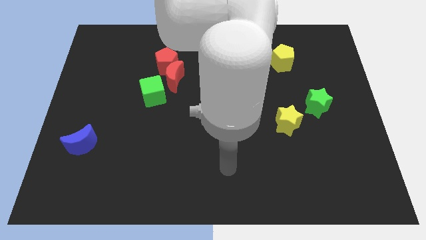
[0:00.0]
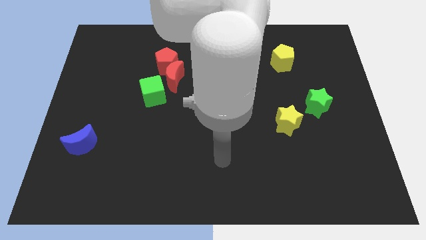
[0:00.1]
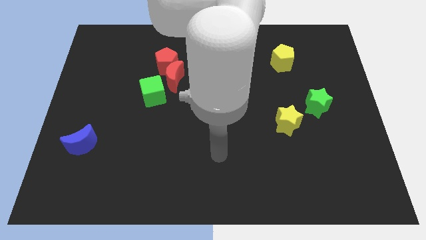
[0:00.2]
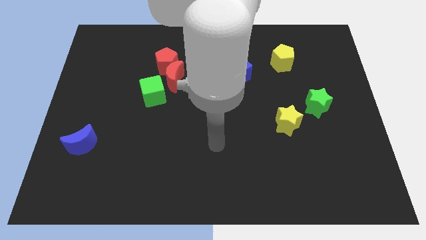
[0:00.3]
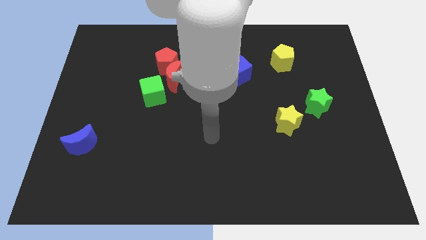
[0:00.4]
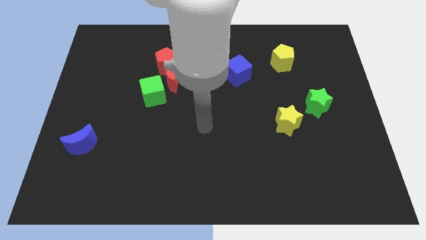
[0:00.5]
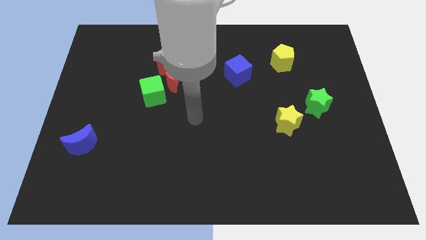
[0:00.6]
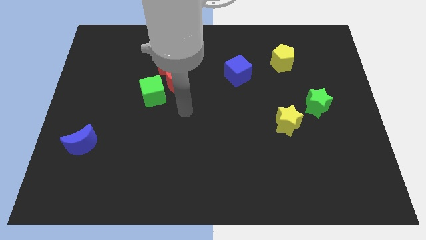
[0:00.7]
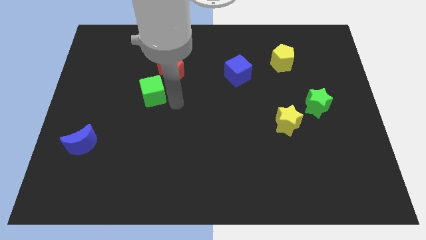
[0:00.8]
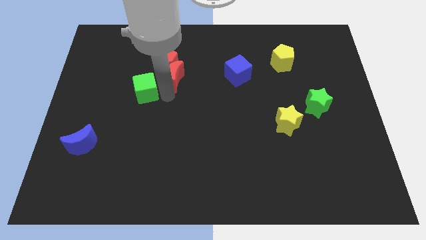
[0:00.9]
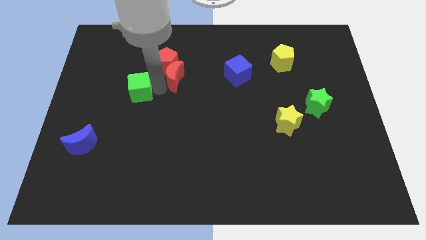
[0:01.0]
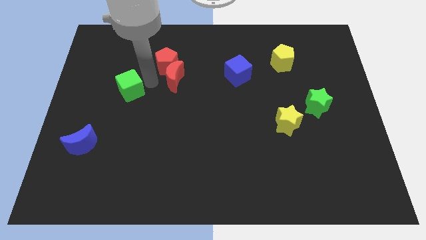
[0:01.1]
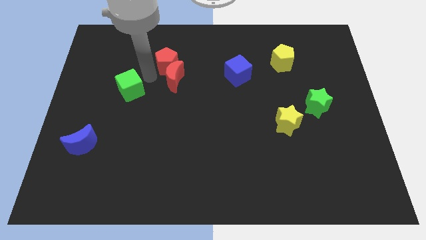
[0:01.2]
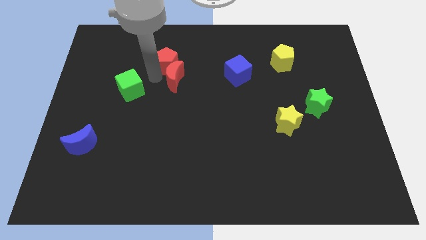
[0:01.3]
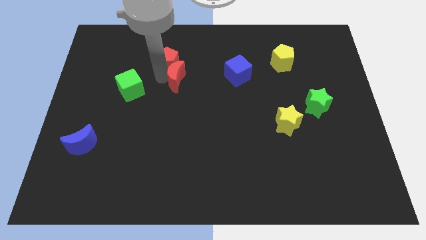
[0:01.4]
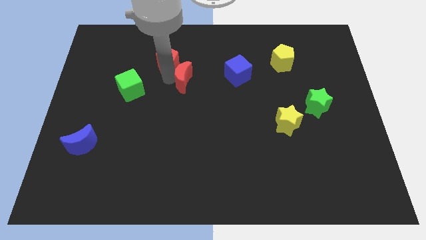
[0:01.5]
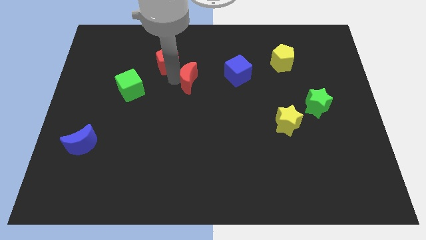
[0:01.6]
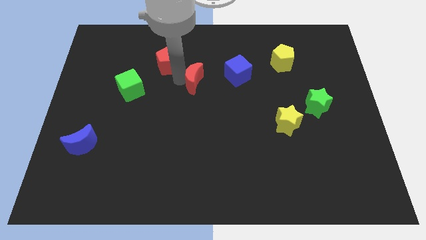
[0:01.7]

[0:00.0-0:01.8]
pull the red moon apart from the red pentagon and green cube

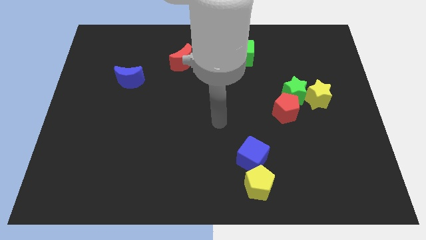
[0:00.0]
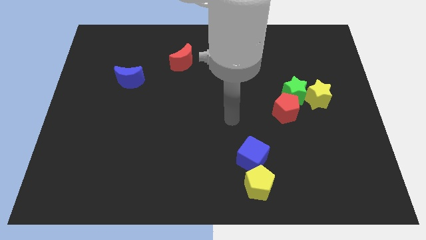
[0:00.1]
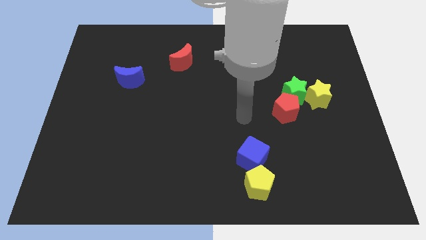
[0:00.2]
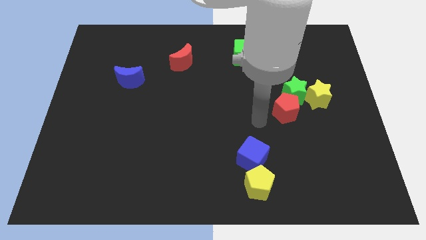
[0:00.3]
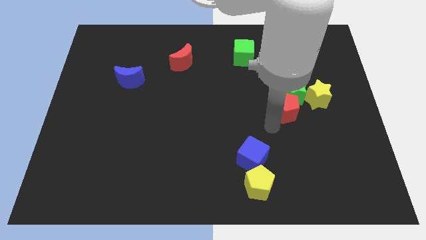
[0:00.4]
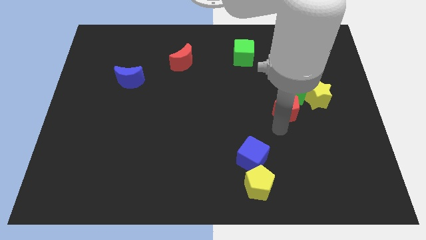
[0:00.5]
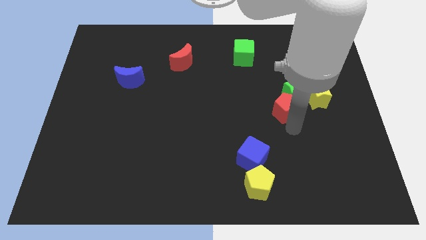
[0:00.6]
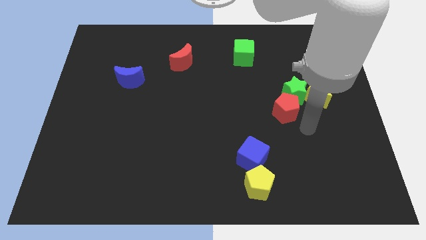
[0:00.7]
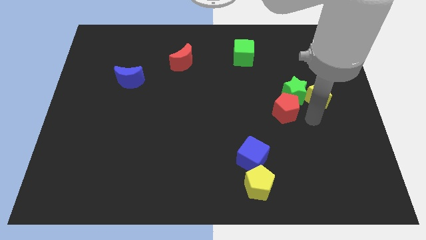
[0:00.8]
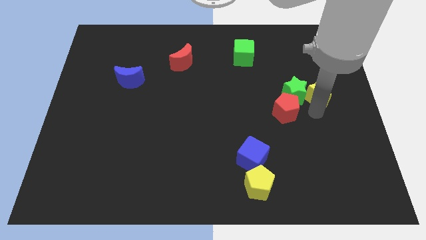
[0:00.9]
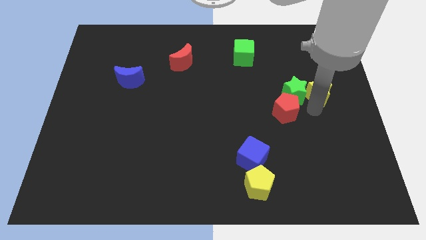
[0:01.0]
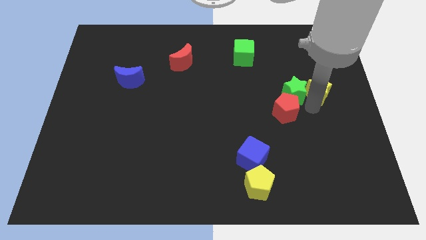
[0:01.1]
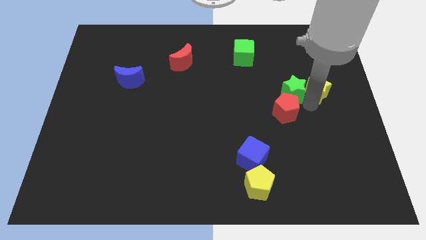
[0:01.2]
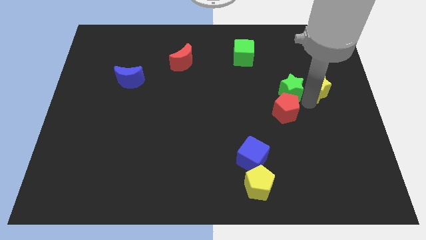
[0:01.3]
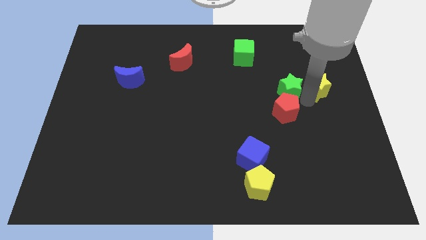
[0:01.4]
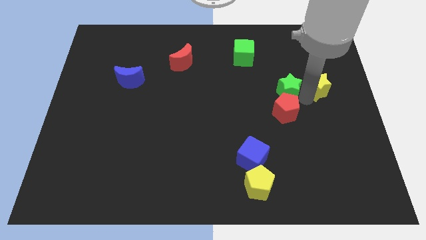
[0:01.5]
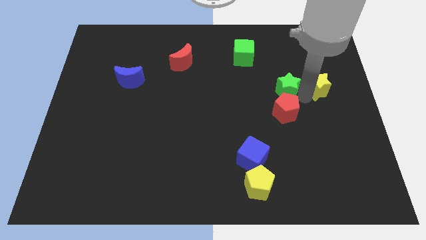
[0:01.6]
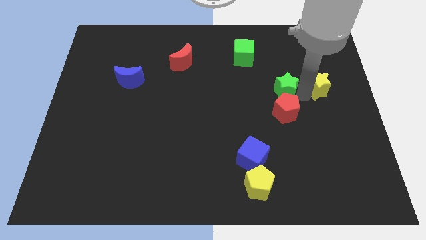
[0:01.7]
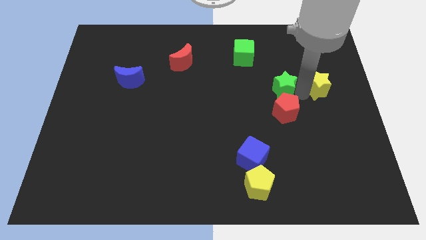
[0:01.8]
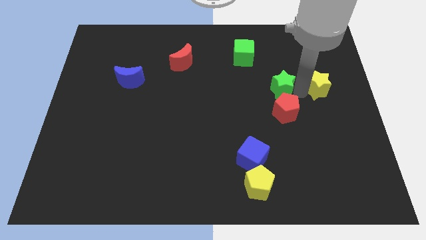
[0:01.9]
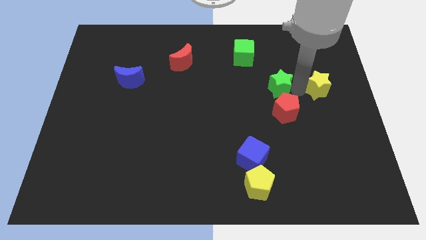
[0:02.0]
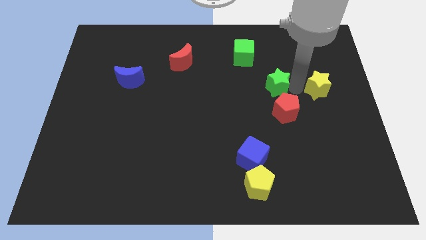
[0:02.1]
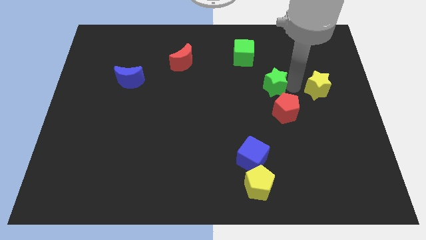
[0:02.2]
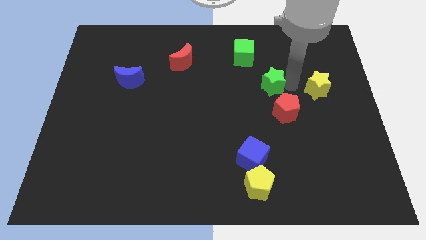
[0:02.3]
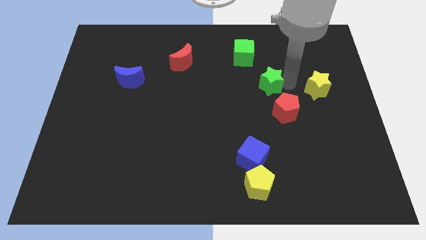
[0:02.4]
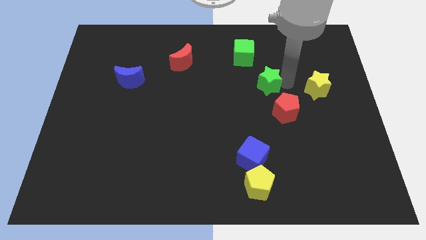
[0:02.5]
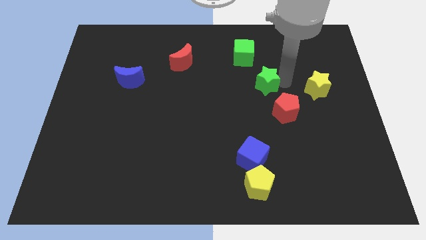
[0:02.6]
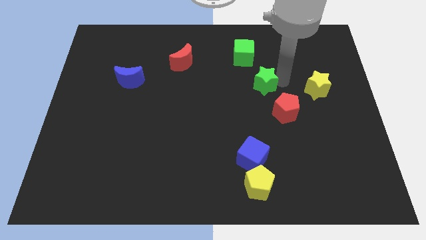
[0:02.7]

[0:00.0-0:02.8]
pull the green star apart from the yellow star and red pentagon

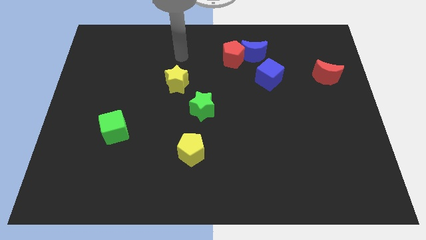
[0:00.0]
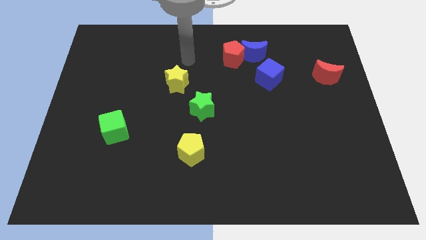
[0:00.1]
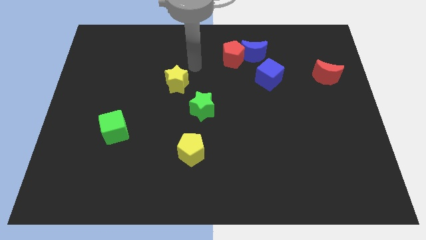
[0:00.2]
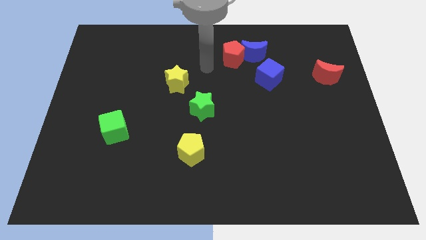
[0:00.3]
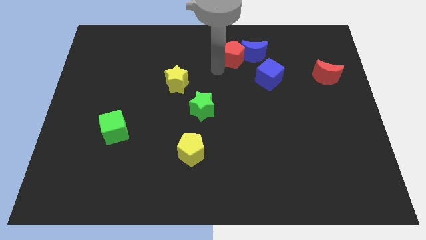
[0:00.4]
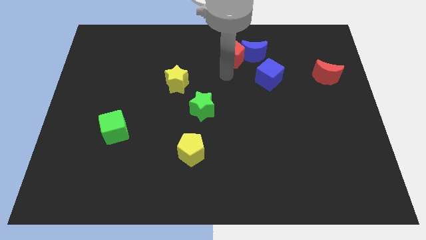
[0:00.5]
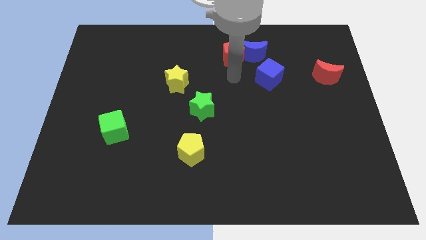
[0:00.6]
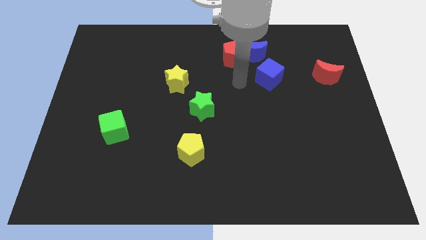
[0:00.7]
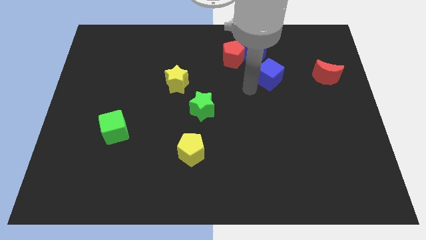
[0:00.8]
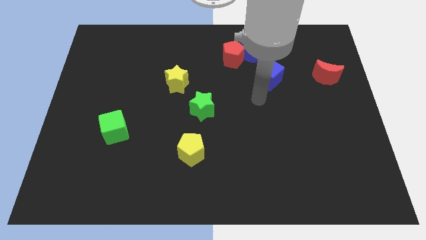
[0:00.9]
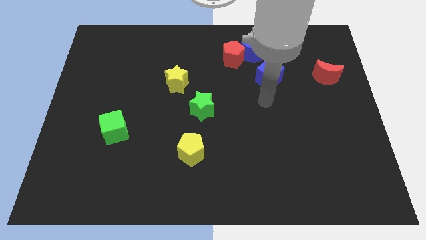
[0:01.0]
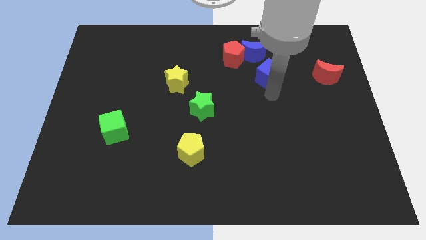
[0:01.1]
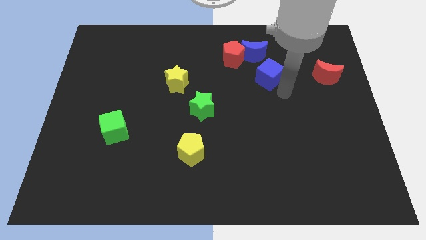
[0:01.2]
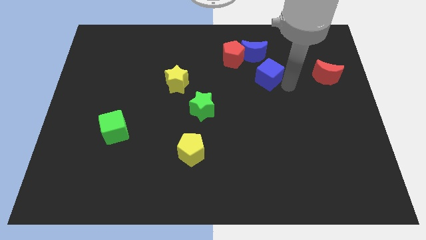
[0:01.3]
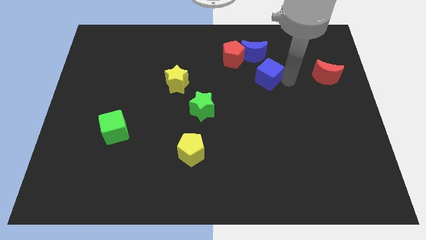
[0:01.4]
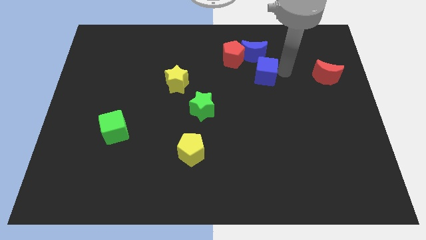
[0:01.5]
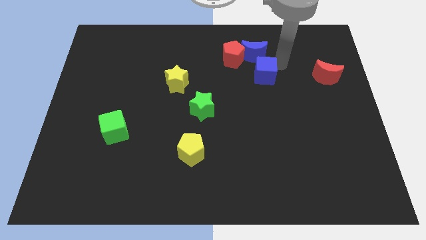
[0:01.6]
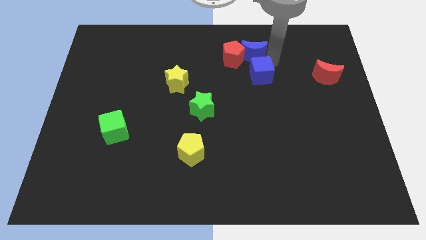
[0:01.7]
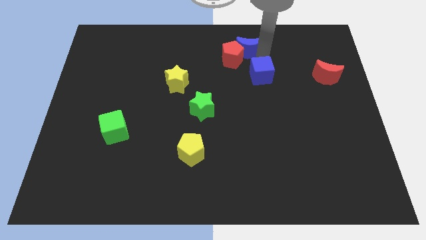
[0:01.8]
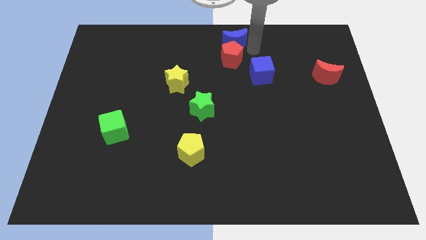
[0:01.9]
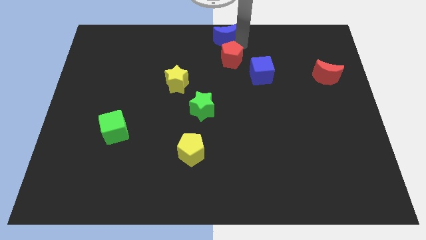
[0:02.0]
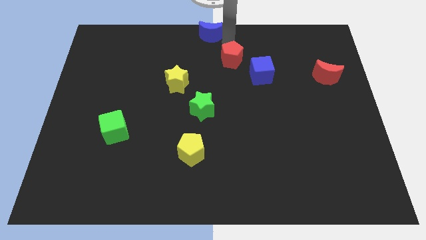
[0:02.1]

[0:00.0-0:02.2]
separate the red pentagon from the blue moon

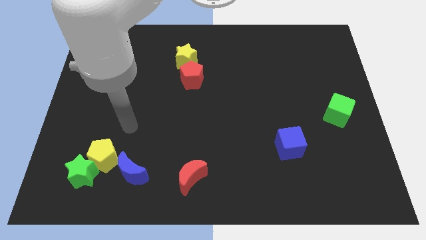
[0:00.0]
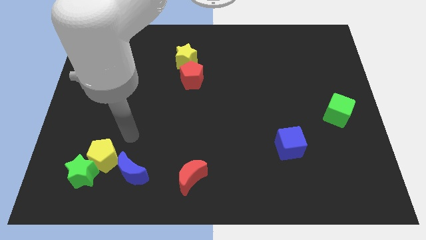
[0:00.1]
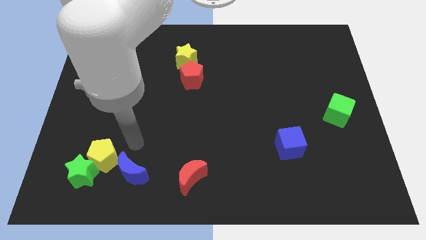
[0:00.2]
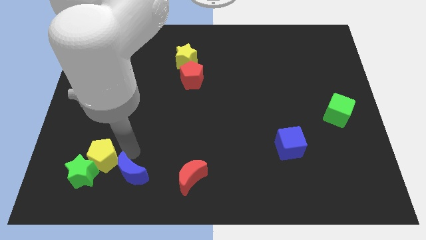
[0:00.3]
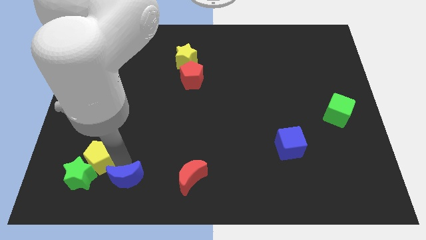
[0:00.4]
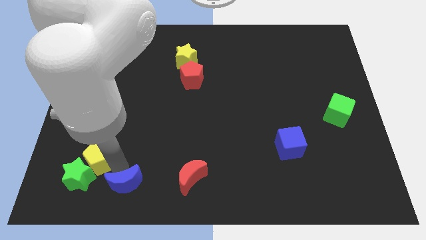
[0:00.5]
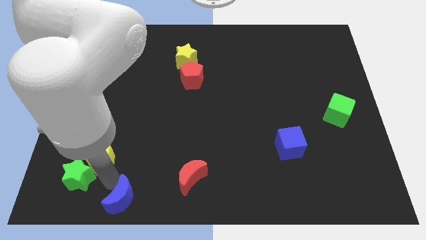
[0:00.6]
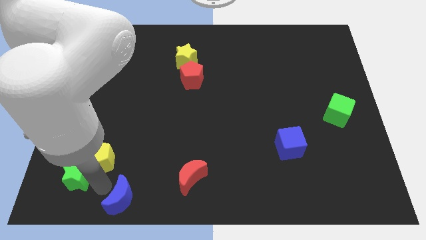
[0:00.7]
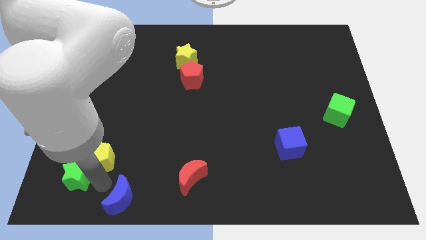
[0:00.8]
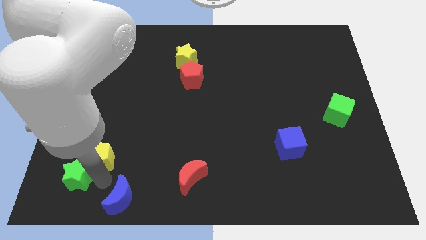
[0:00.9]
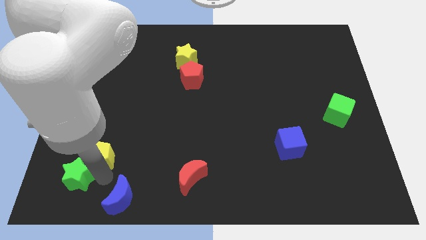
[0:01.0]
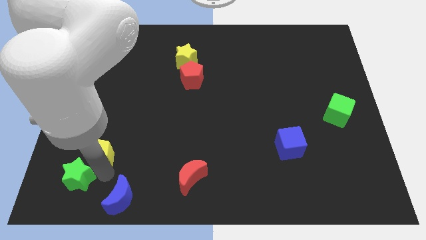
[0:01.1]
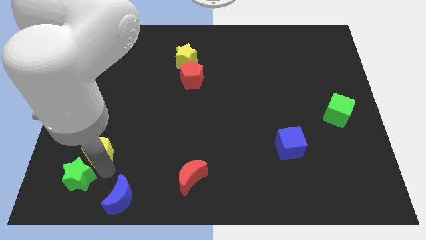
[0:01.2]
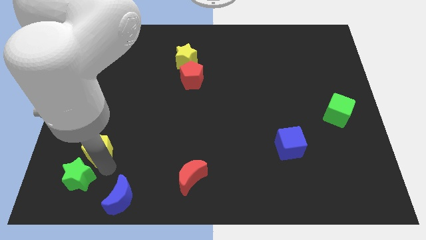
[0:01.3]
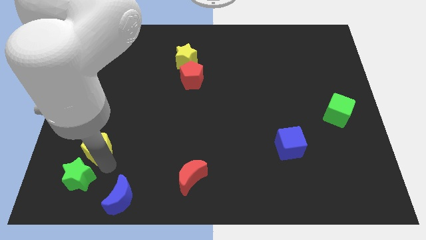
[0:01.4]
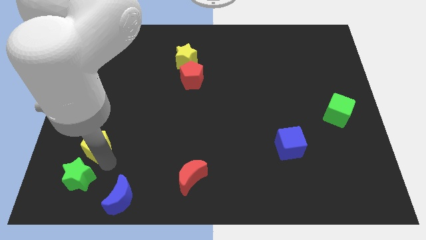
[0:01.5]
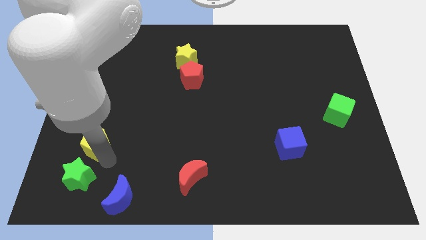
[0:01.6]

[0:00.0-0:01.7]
move the yellow pentagon away from the green star and blue moon

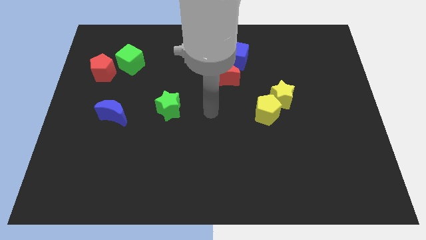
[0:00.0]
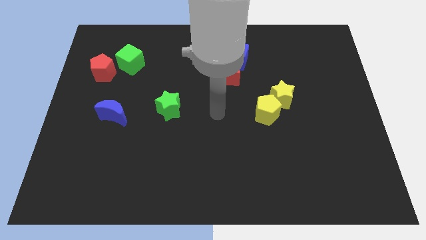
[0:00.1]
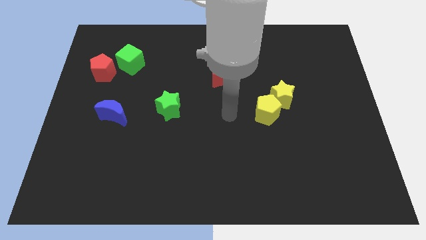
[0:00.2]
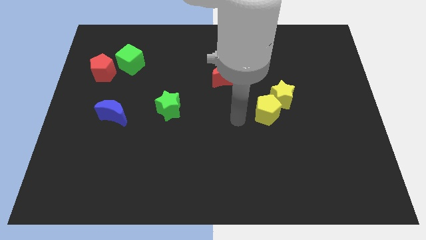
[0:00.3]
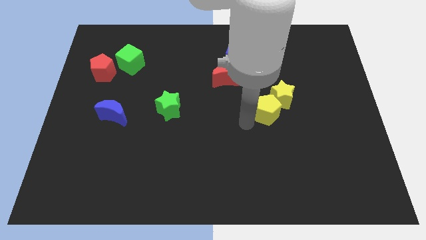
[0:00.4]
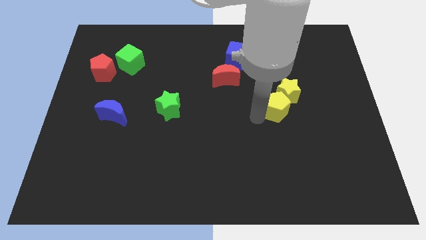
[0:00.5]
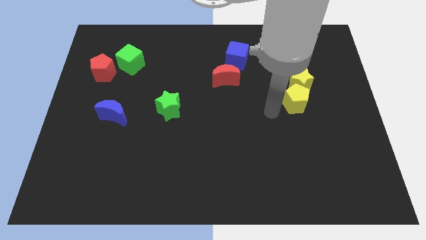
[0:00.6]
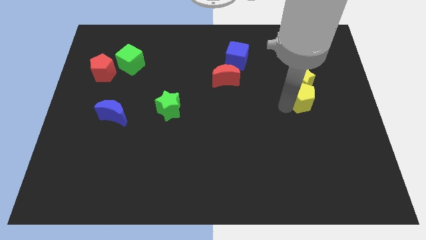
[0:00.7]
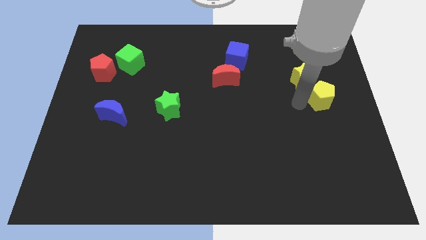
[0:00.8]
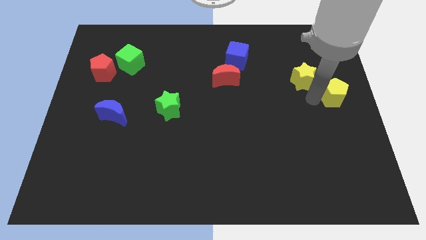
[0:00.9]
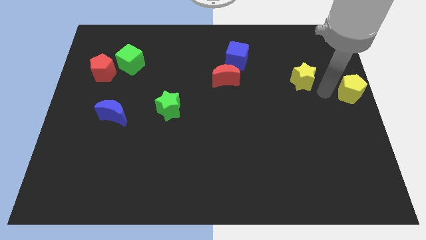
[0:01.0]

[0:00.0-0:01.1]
pull the yellow star apart from the yellow pentagon
